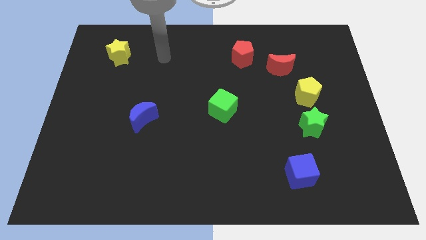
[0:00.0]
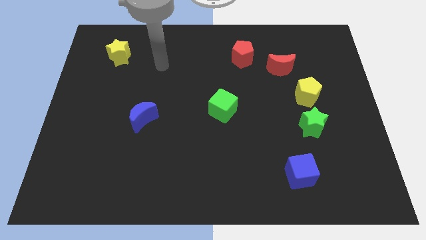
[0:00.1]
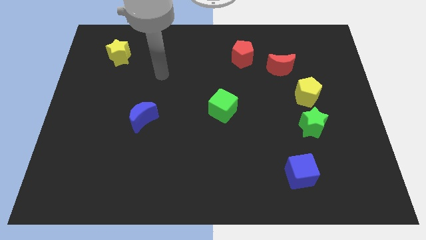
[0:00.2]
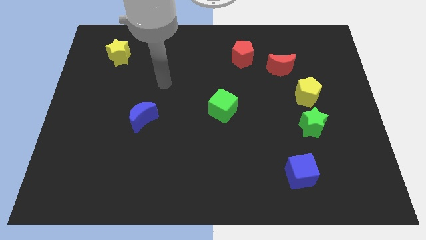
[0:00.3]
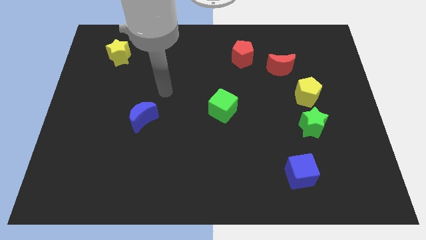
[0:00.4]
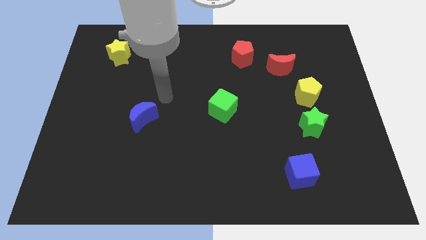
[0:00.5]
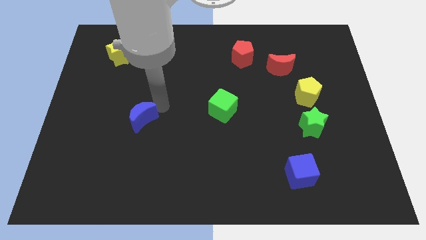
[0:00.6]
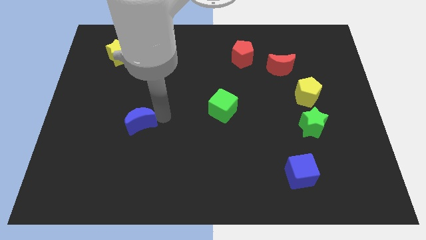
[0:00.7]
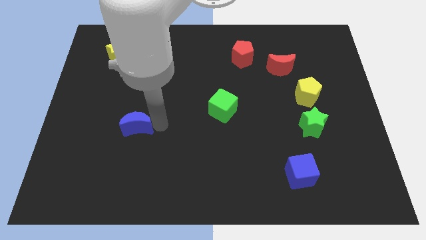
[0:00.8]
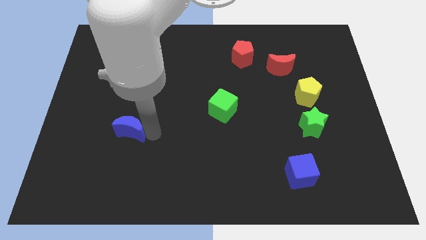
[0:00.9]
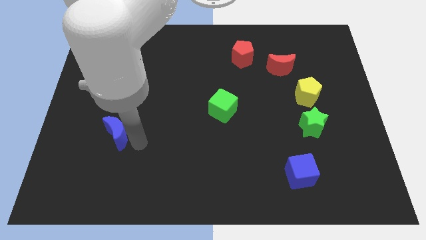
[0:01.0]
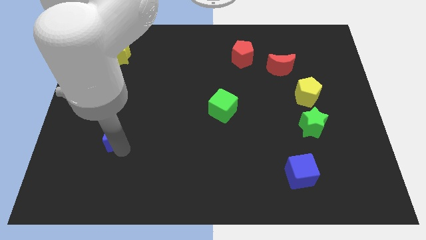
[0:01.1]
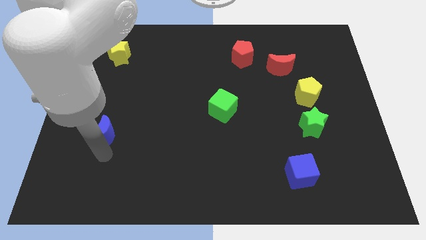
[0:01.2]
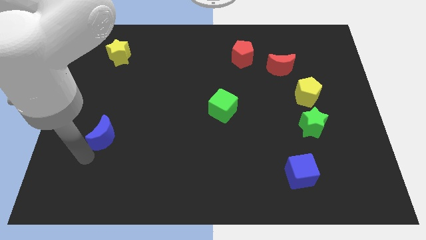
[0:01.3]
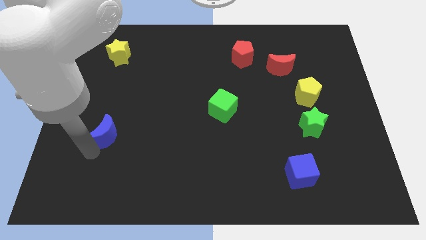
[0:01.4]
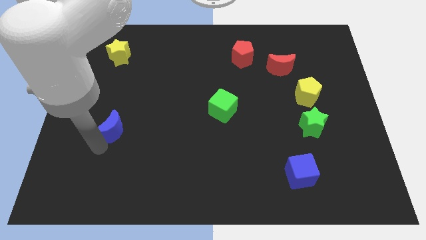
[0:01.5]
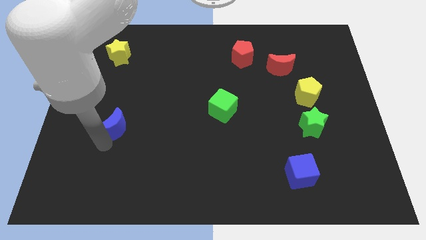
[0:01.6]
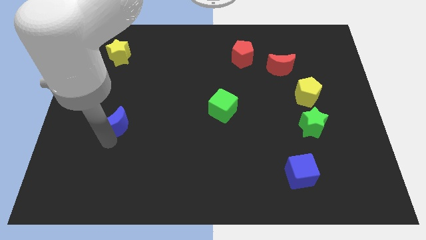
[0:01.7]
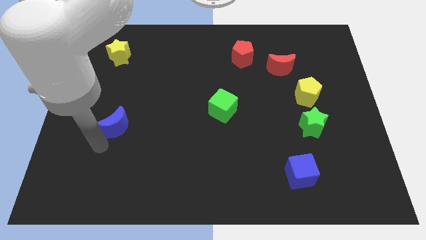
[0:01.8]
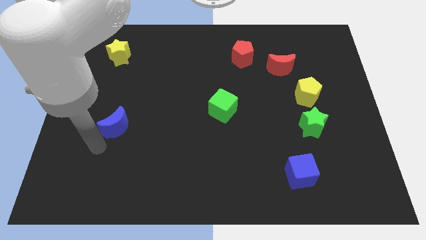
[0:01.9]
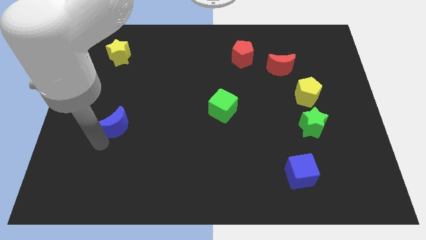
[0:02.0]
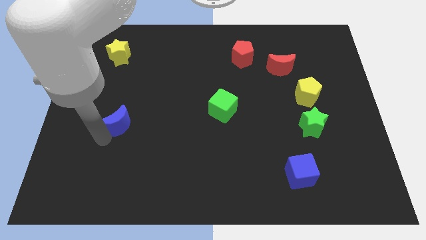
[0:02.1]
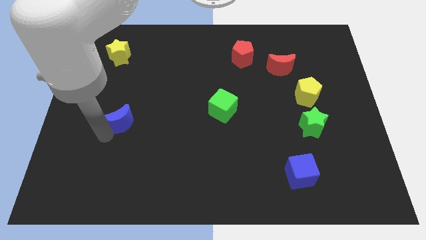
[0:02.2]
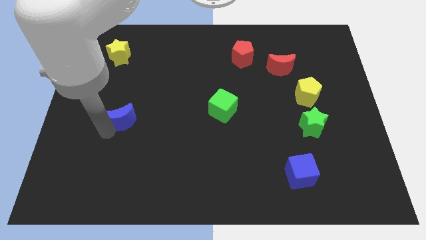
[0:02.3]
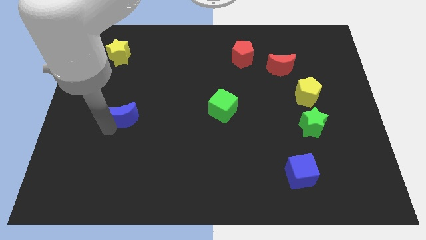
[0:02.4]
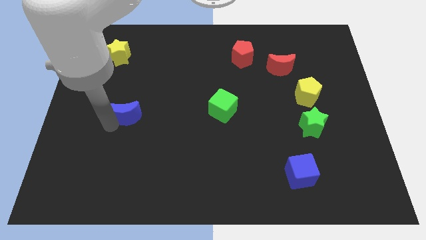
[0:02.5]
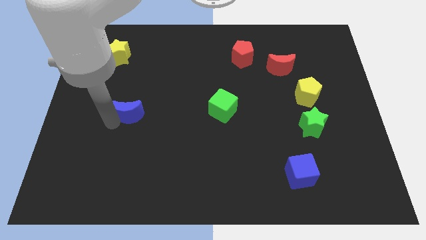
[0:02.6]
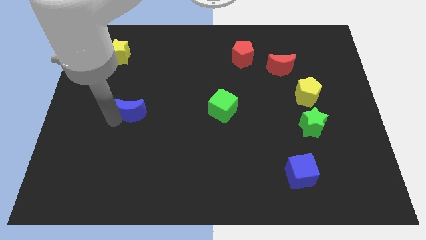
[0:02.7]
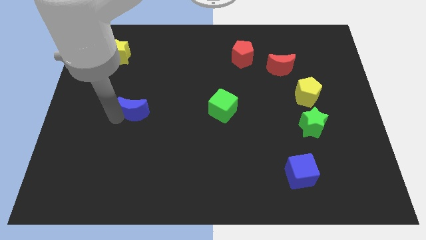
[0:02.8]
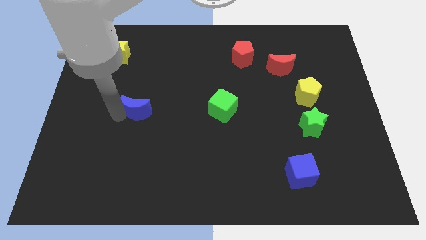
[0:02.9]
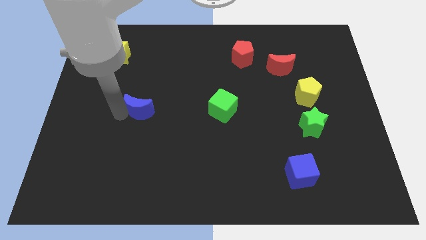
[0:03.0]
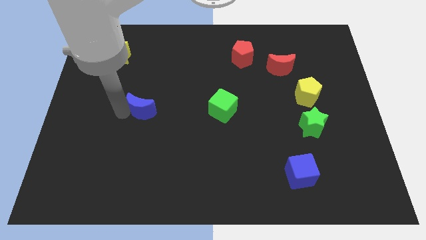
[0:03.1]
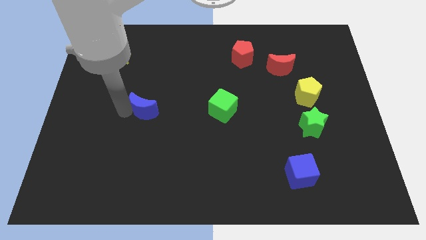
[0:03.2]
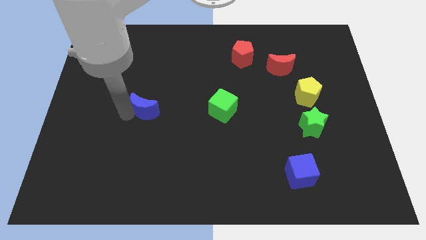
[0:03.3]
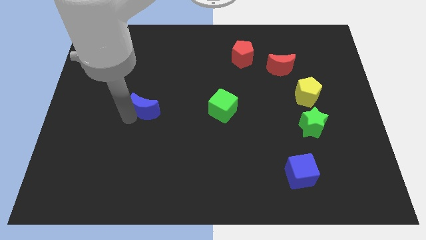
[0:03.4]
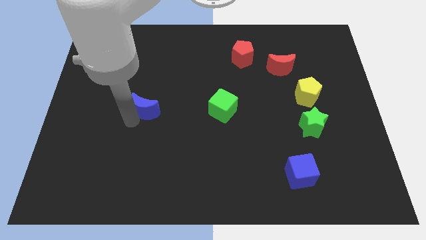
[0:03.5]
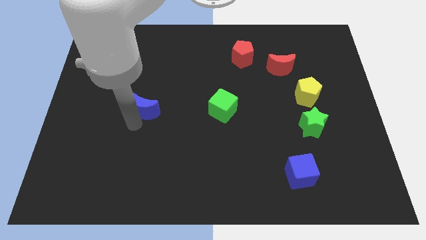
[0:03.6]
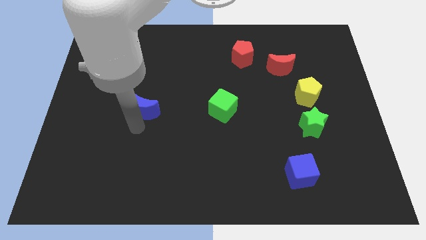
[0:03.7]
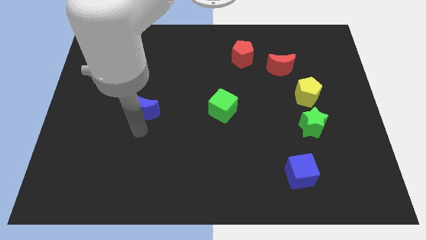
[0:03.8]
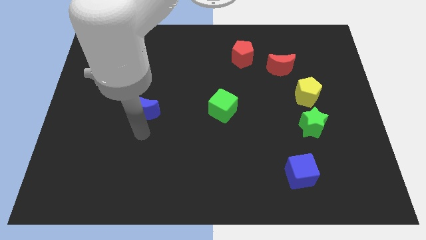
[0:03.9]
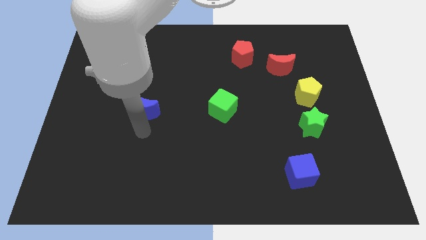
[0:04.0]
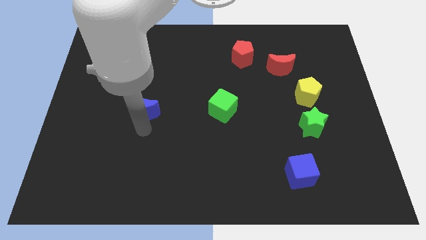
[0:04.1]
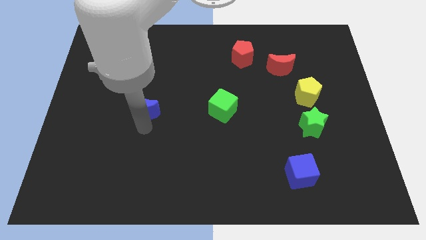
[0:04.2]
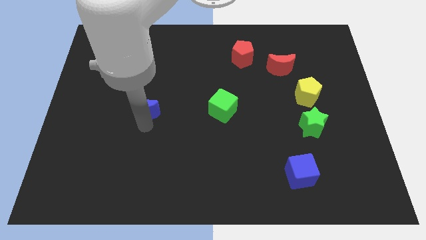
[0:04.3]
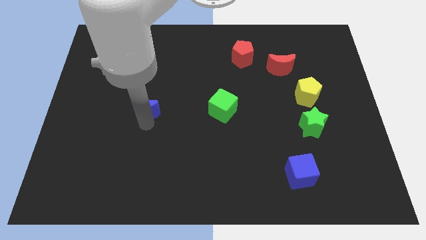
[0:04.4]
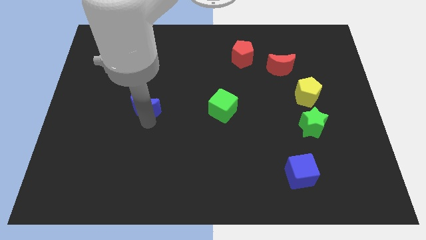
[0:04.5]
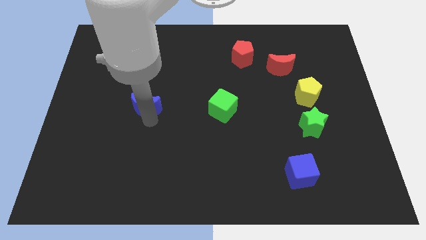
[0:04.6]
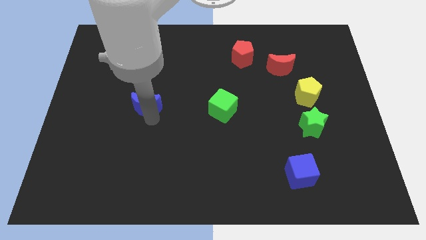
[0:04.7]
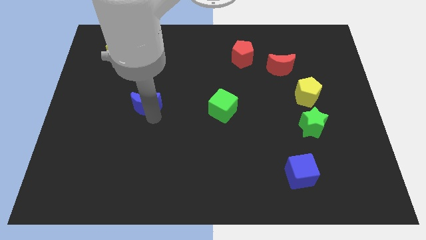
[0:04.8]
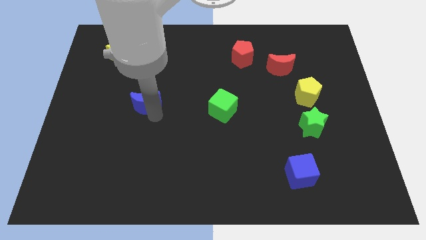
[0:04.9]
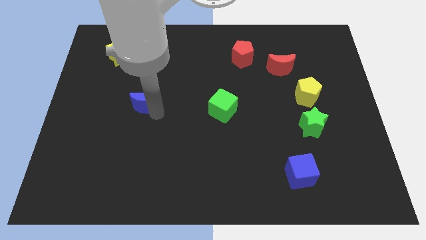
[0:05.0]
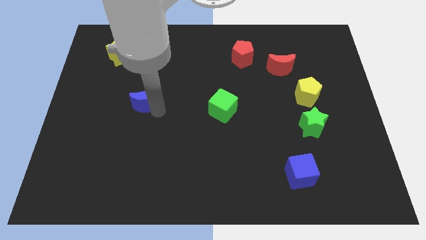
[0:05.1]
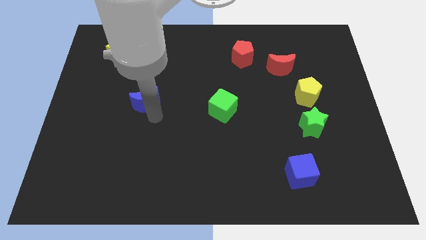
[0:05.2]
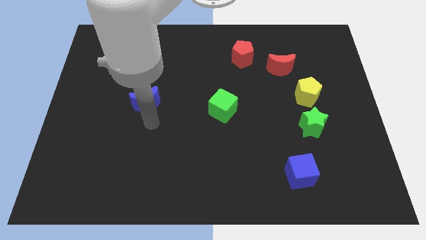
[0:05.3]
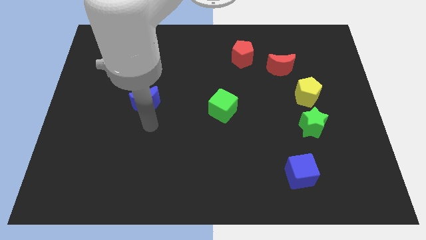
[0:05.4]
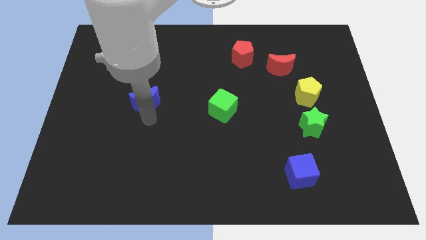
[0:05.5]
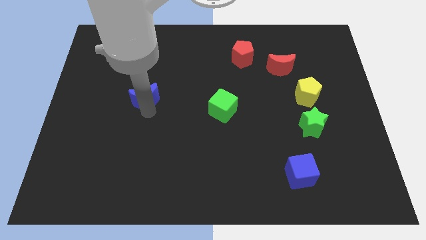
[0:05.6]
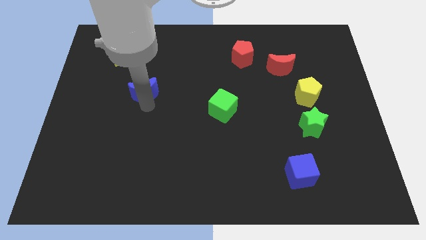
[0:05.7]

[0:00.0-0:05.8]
slide the blue moon upwards somewhat

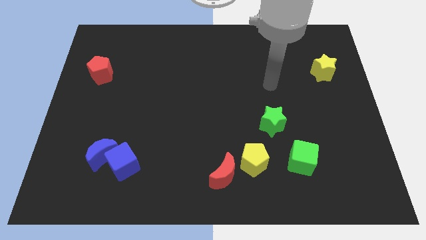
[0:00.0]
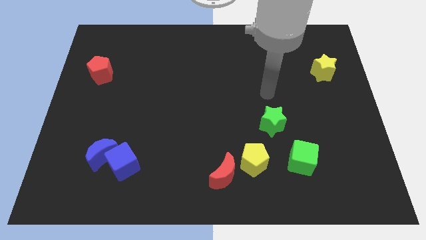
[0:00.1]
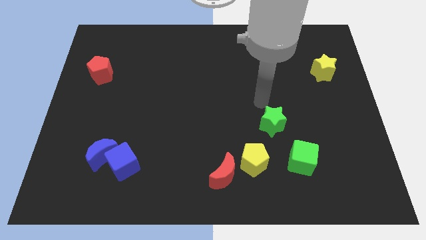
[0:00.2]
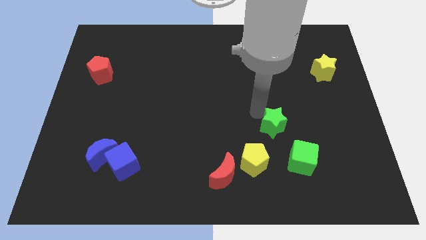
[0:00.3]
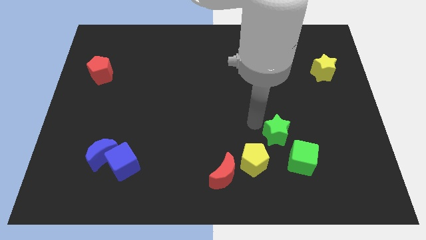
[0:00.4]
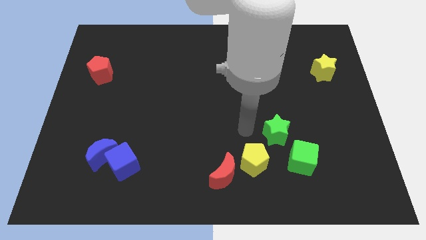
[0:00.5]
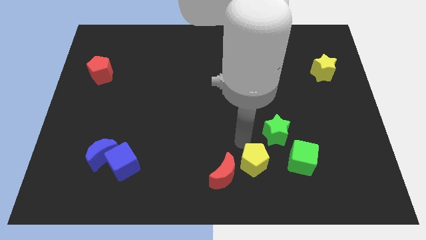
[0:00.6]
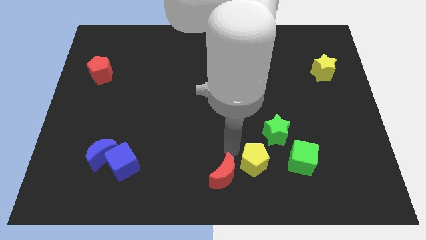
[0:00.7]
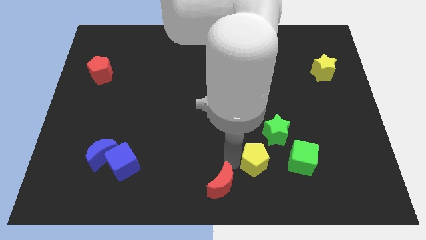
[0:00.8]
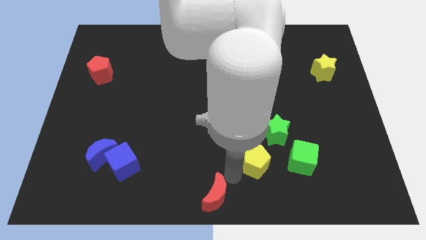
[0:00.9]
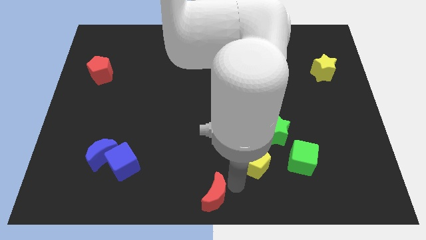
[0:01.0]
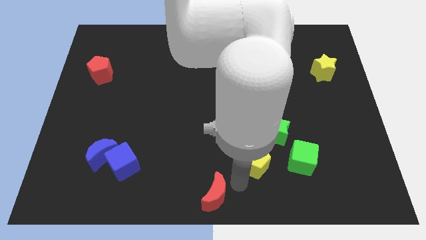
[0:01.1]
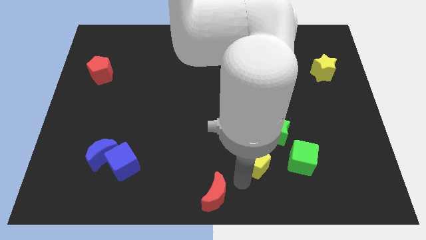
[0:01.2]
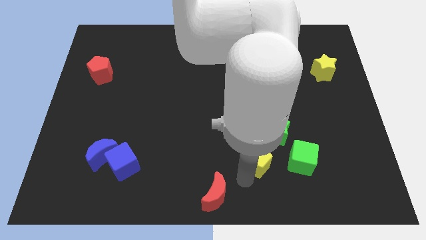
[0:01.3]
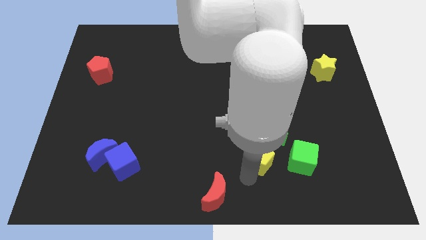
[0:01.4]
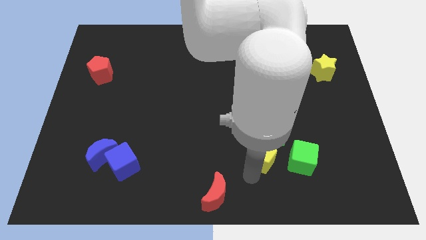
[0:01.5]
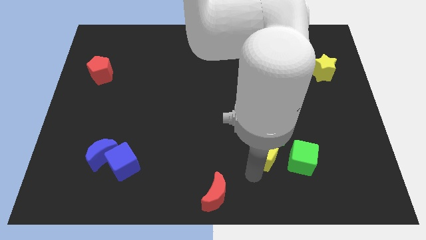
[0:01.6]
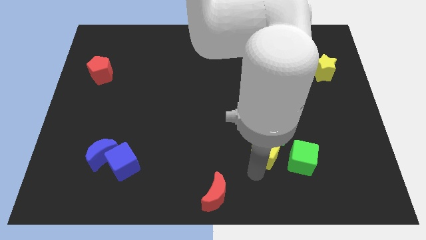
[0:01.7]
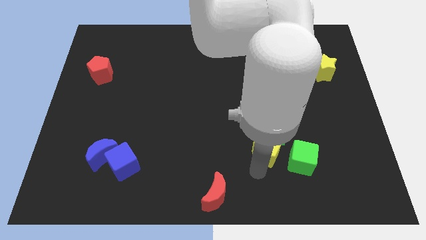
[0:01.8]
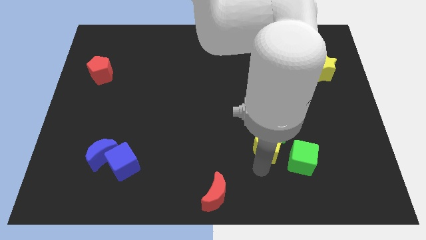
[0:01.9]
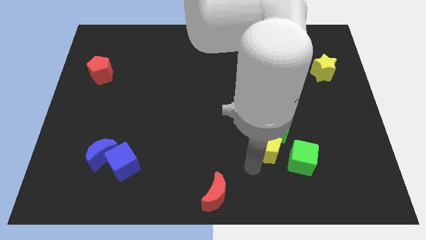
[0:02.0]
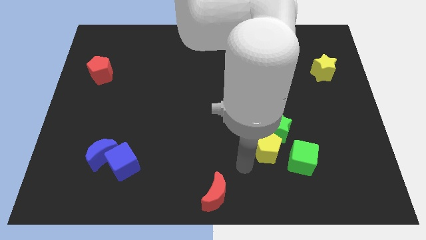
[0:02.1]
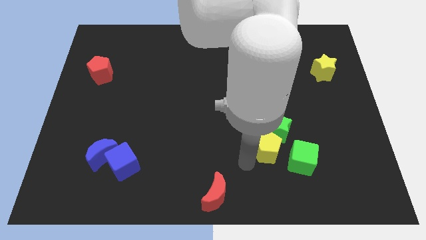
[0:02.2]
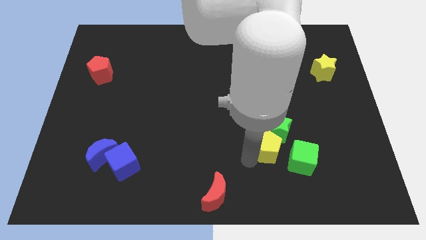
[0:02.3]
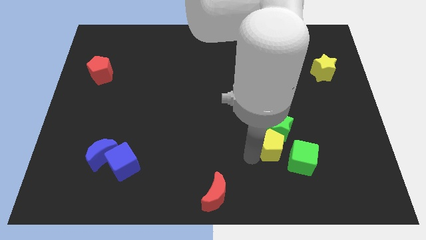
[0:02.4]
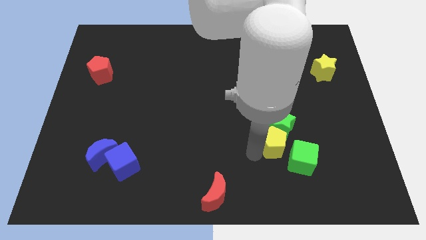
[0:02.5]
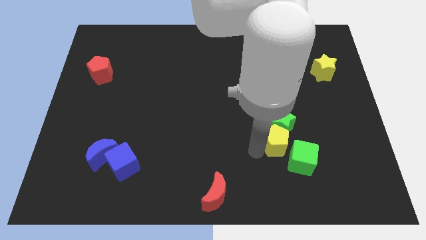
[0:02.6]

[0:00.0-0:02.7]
move the yellow pentagon a little upwards and then right
